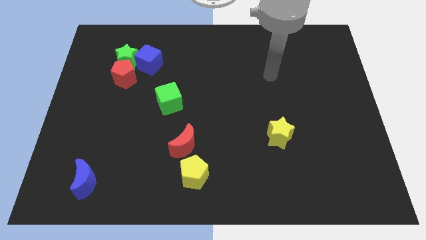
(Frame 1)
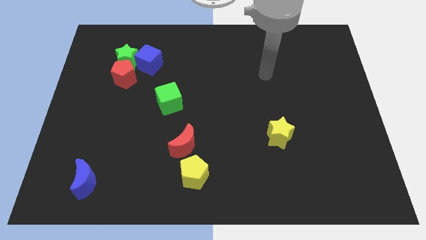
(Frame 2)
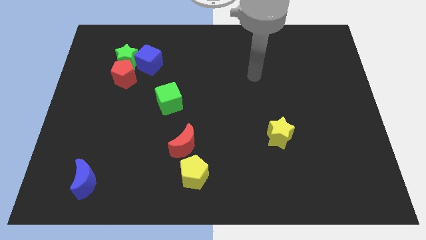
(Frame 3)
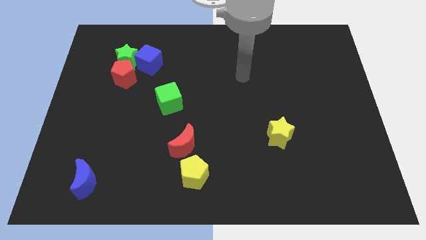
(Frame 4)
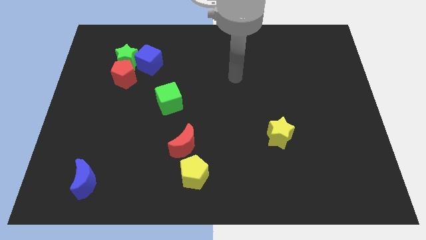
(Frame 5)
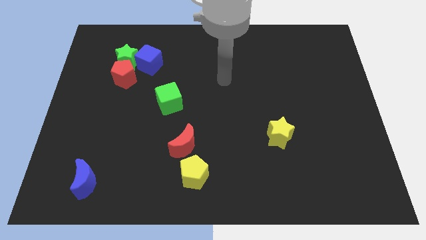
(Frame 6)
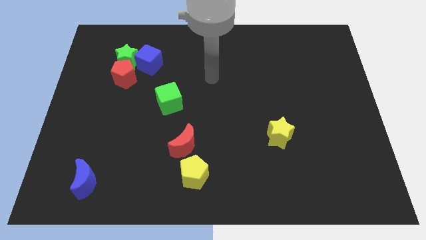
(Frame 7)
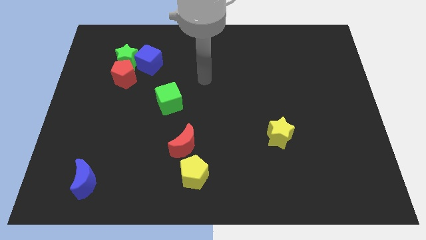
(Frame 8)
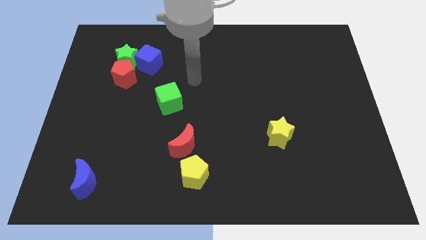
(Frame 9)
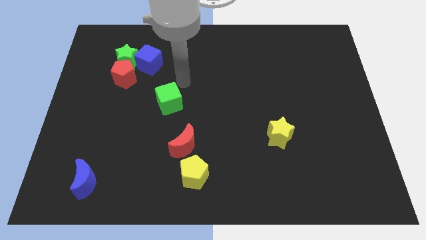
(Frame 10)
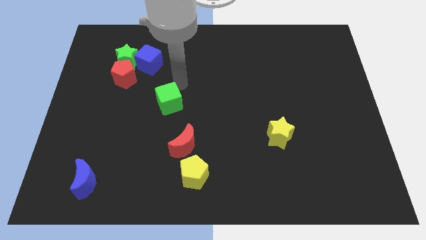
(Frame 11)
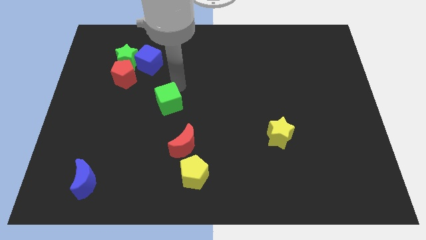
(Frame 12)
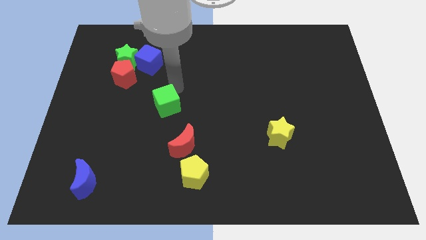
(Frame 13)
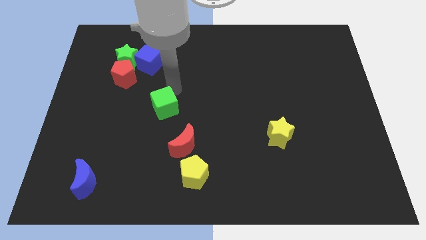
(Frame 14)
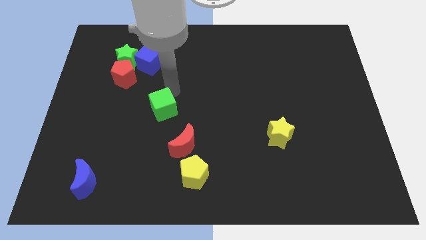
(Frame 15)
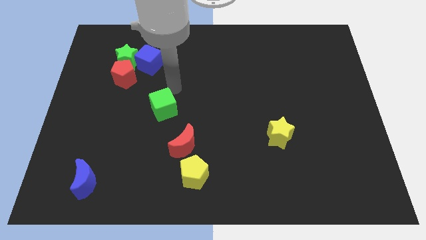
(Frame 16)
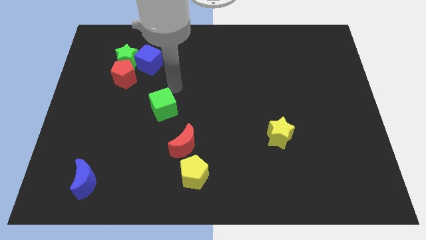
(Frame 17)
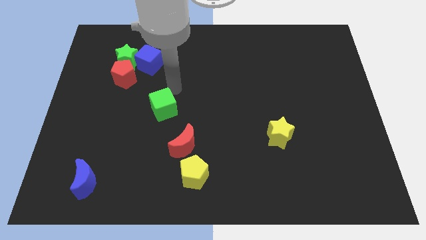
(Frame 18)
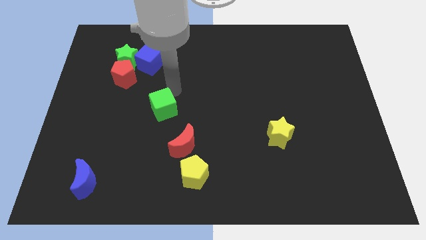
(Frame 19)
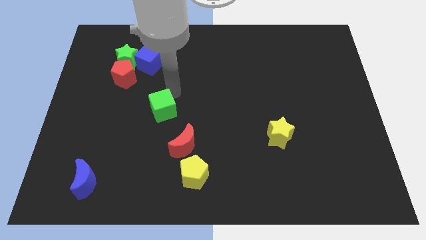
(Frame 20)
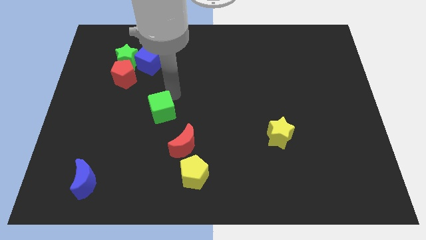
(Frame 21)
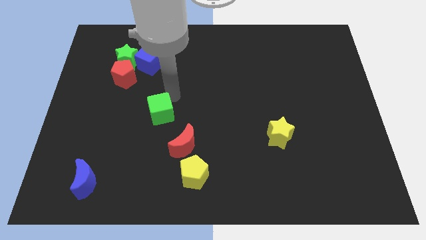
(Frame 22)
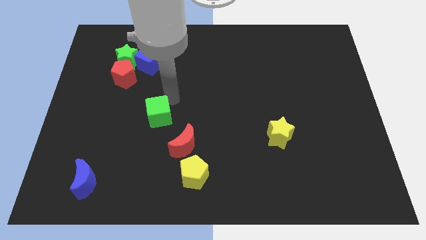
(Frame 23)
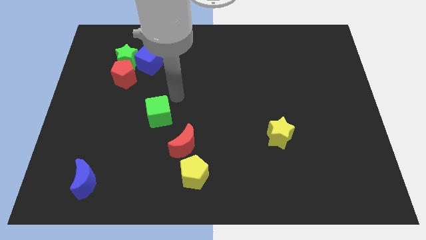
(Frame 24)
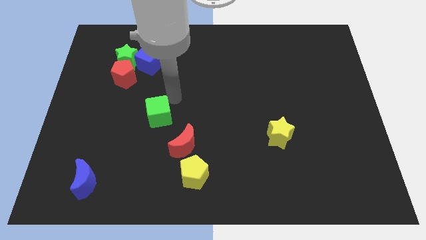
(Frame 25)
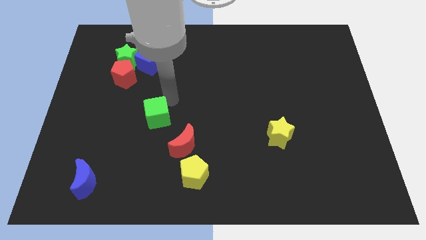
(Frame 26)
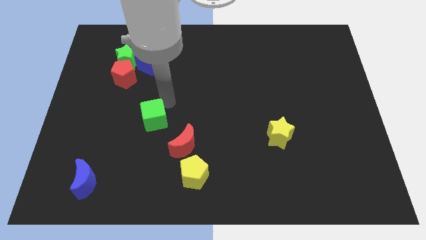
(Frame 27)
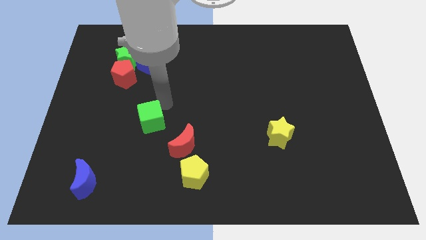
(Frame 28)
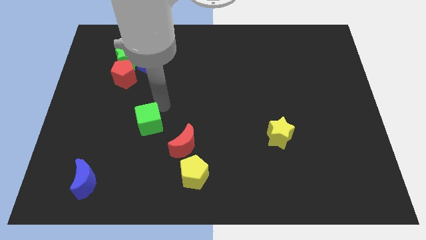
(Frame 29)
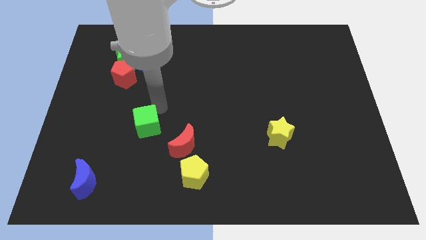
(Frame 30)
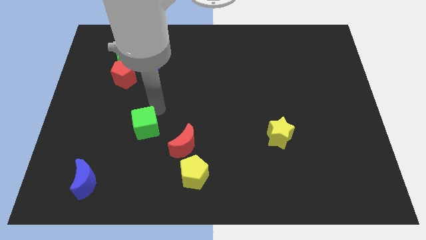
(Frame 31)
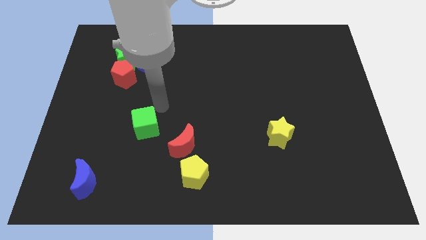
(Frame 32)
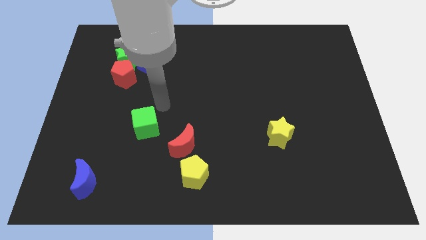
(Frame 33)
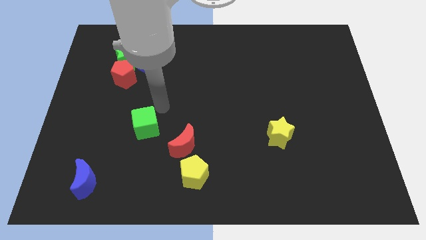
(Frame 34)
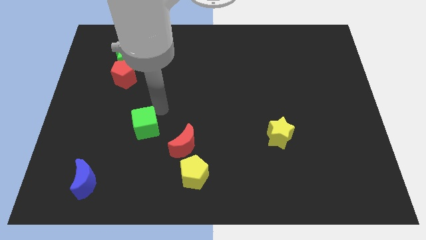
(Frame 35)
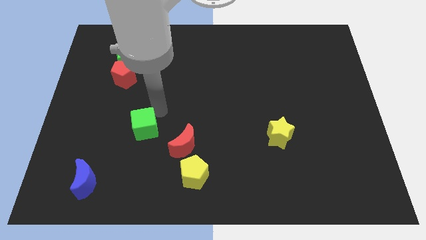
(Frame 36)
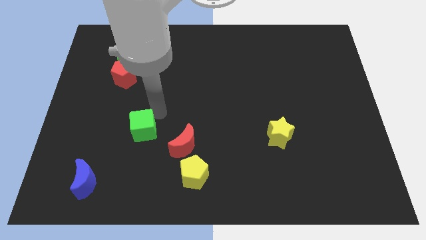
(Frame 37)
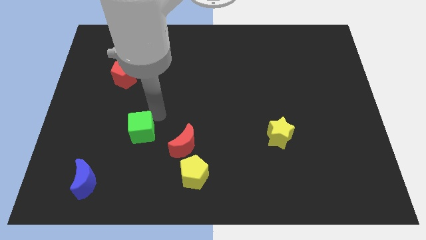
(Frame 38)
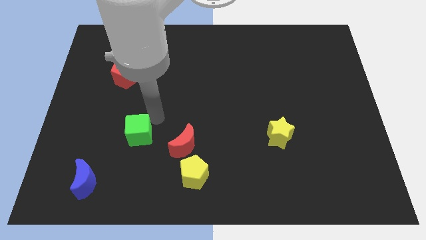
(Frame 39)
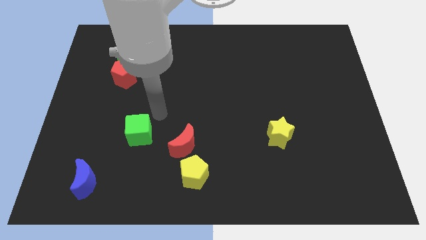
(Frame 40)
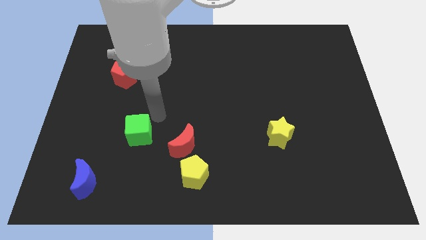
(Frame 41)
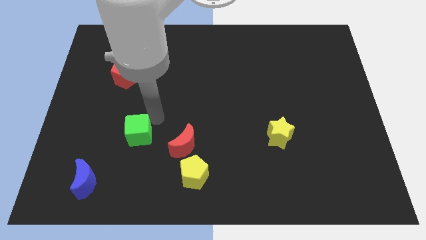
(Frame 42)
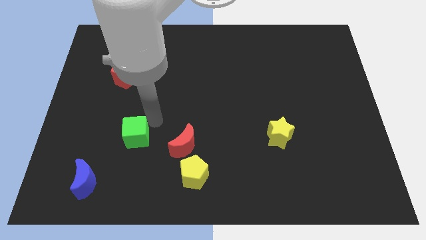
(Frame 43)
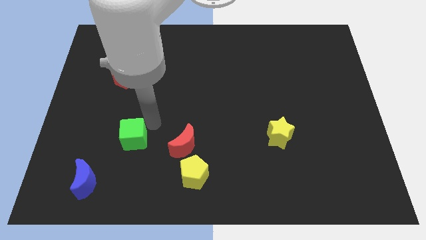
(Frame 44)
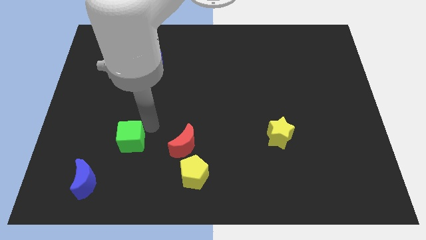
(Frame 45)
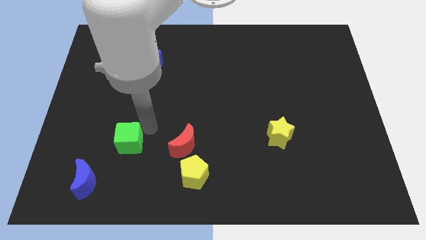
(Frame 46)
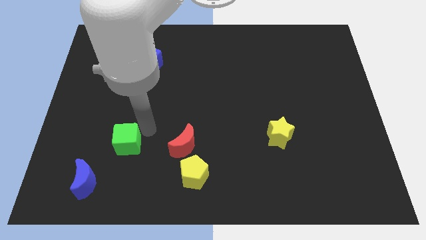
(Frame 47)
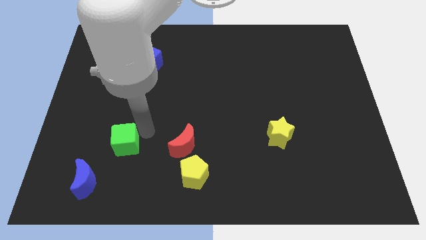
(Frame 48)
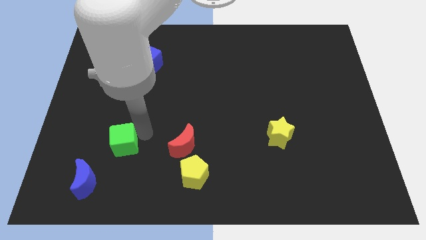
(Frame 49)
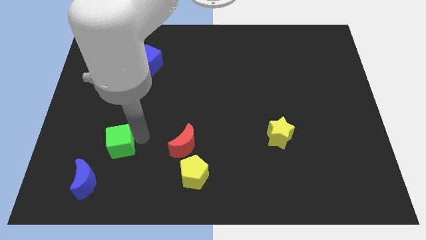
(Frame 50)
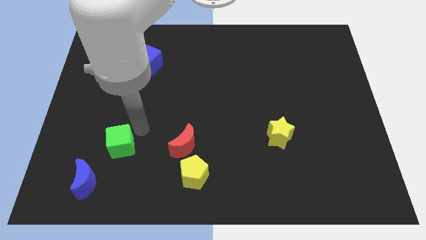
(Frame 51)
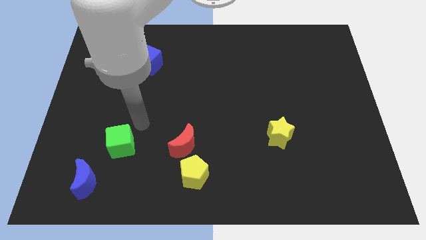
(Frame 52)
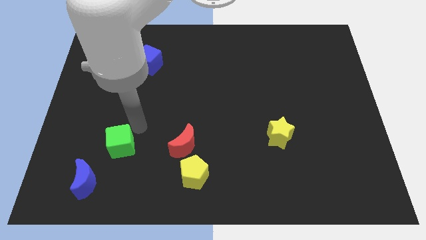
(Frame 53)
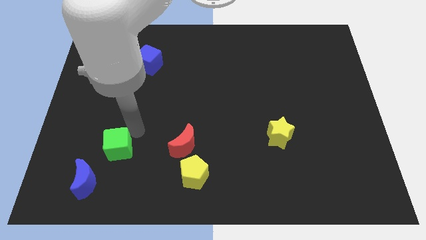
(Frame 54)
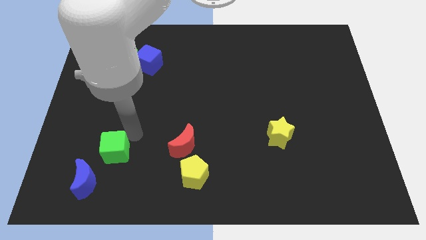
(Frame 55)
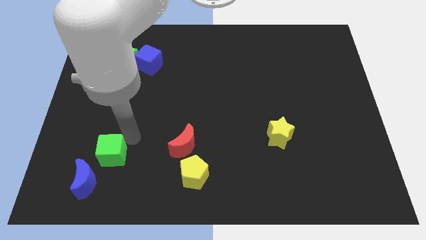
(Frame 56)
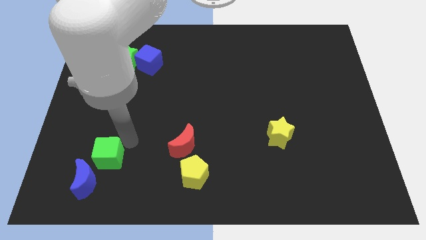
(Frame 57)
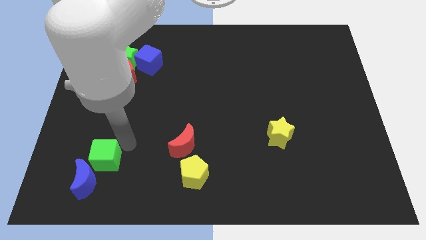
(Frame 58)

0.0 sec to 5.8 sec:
put the green cube close to the blue moon
